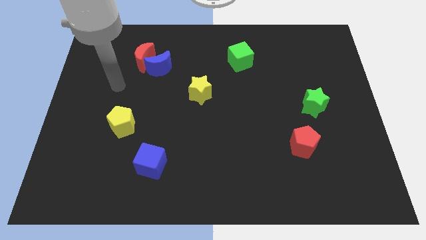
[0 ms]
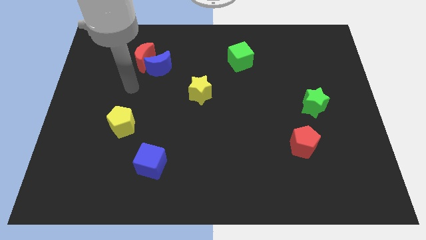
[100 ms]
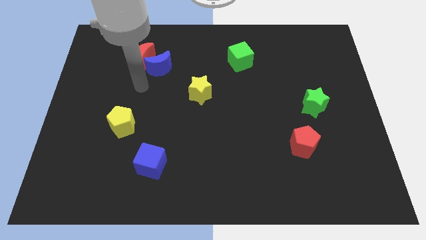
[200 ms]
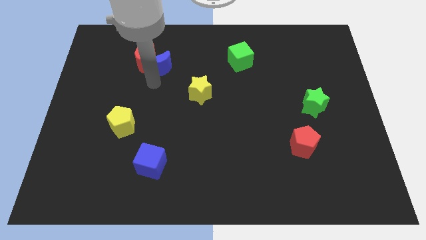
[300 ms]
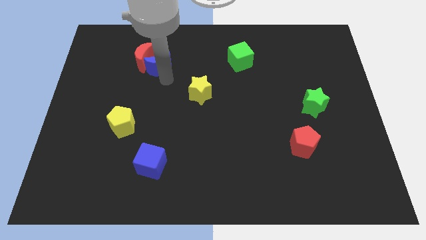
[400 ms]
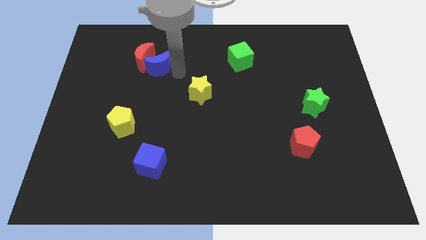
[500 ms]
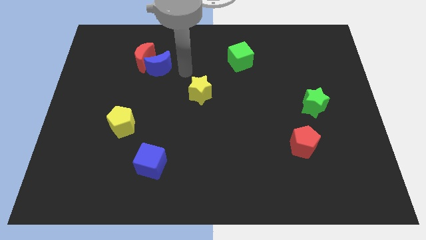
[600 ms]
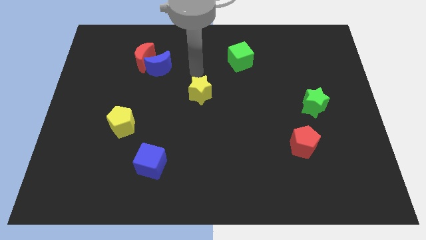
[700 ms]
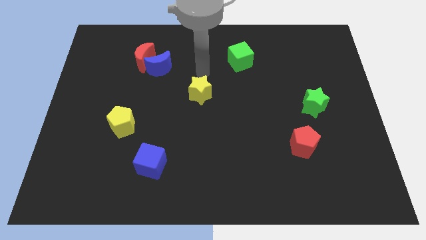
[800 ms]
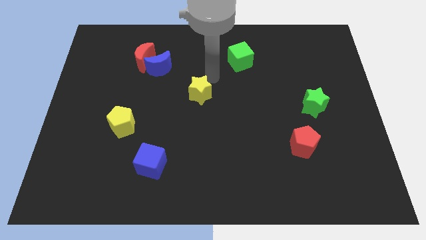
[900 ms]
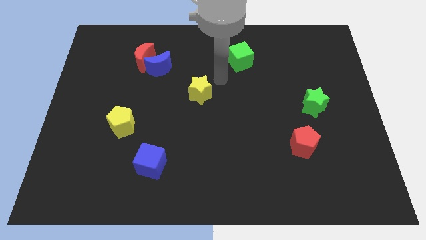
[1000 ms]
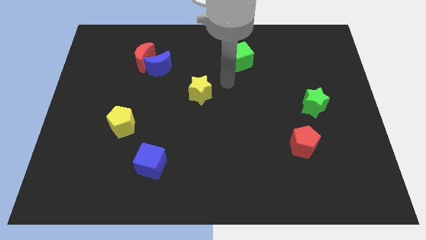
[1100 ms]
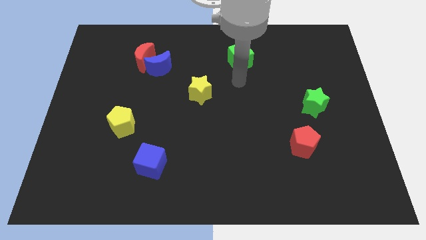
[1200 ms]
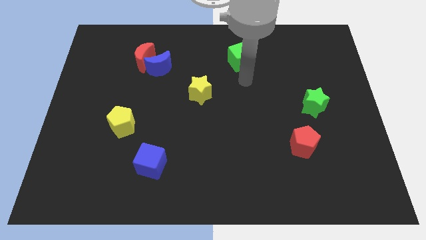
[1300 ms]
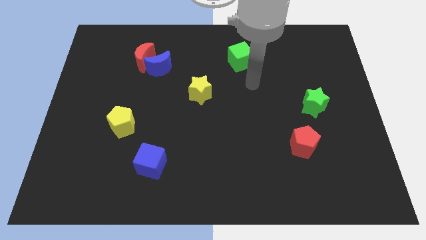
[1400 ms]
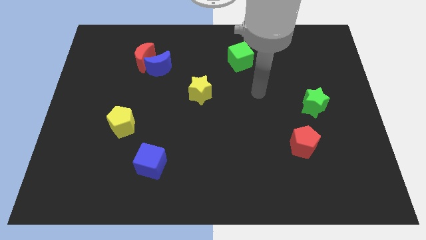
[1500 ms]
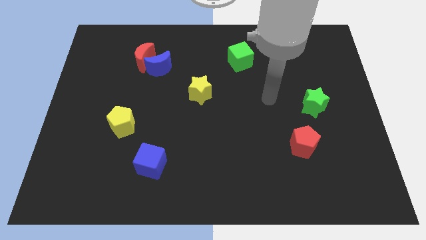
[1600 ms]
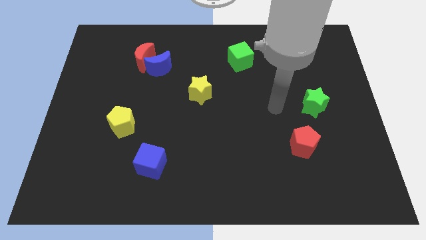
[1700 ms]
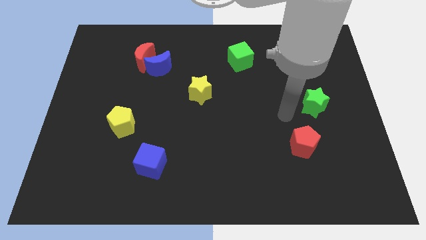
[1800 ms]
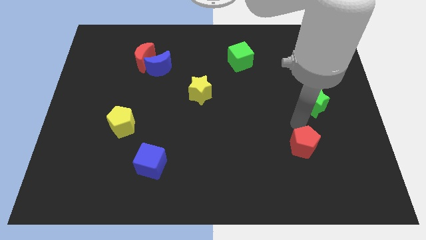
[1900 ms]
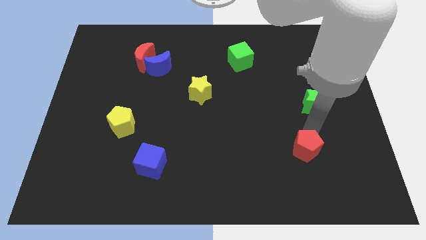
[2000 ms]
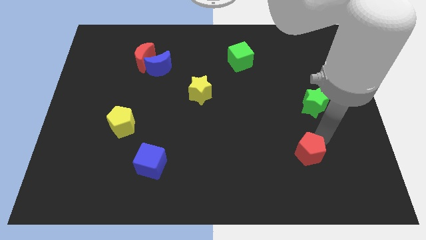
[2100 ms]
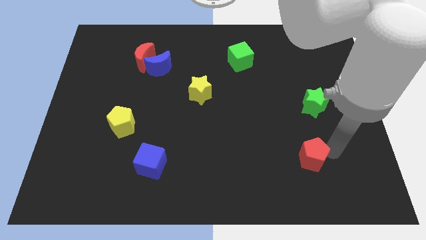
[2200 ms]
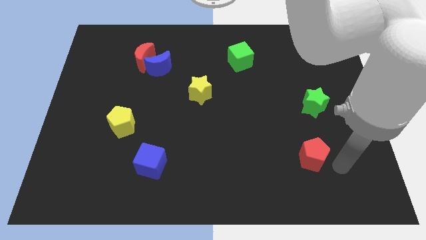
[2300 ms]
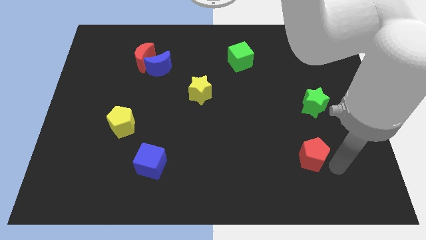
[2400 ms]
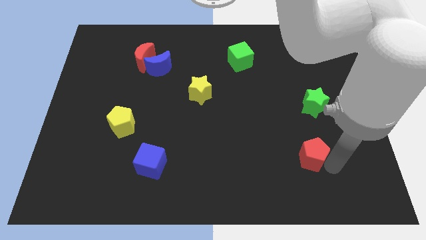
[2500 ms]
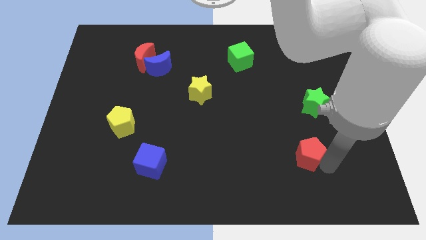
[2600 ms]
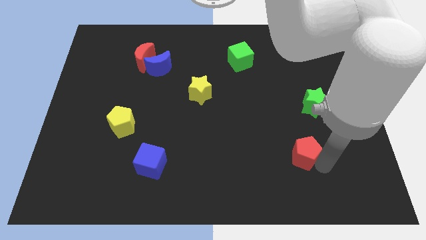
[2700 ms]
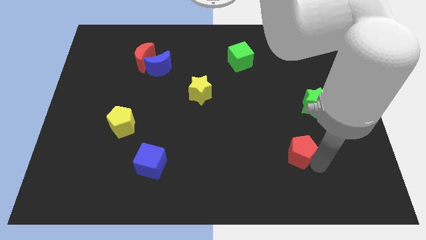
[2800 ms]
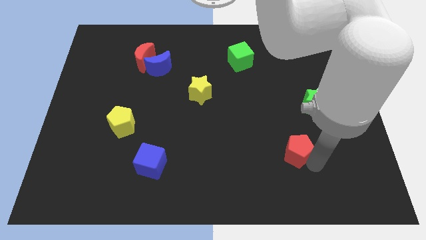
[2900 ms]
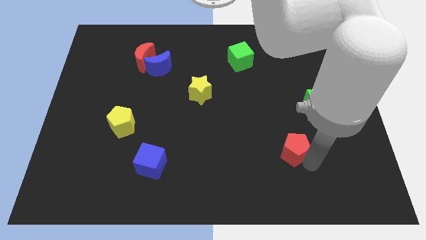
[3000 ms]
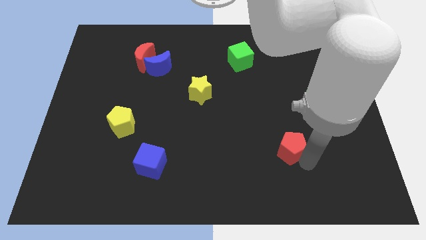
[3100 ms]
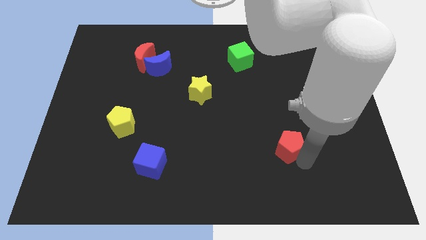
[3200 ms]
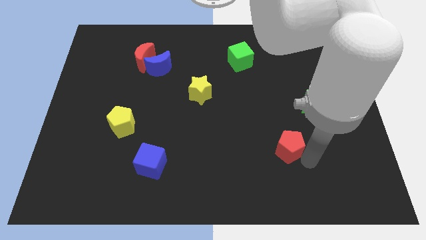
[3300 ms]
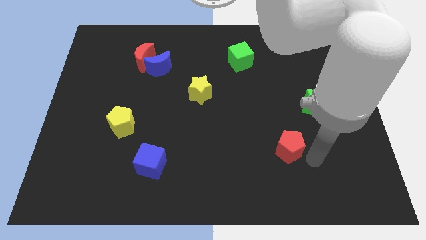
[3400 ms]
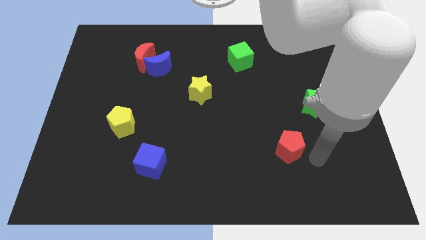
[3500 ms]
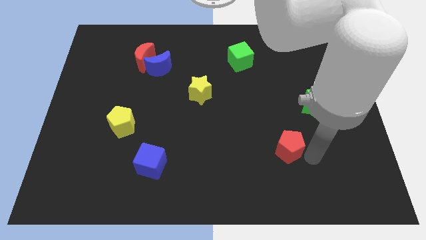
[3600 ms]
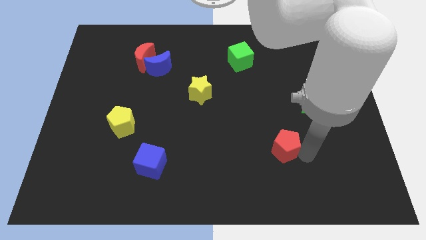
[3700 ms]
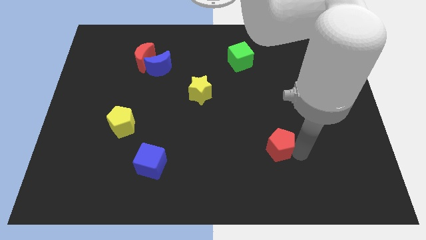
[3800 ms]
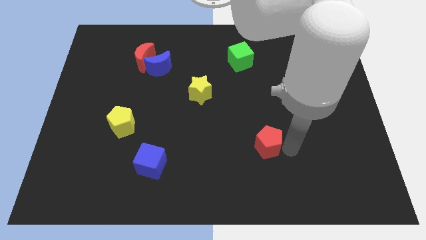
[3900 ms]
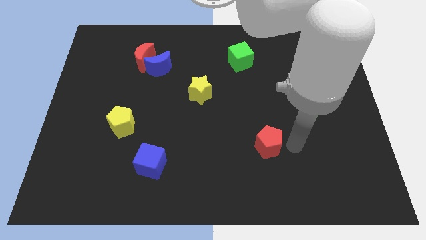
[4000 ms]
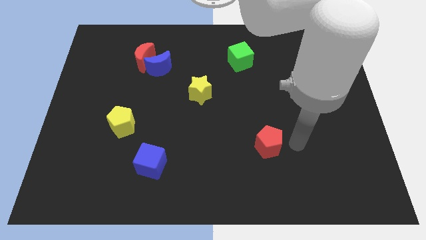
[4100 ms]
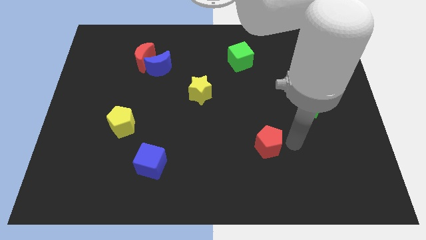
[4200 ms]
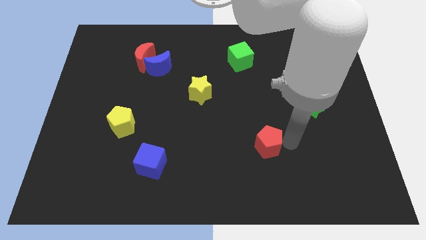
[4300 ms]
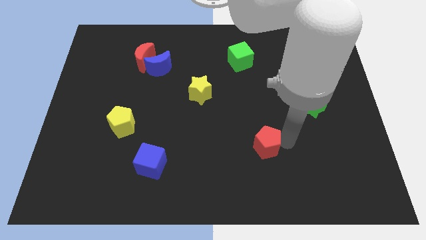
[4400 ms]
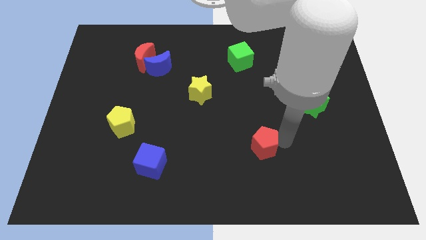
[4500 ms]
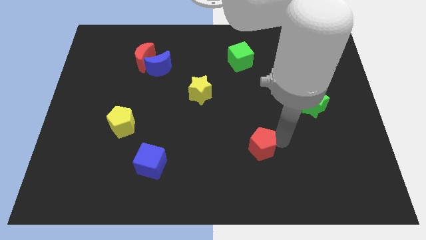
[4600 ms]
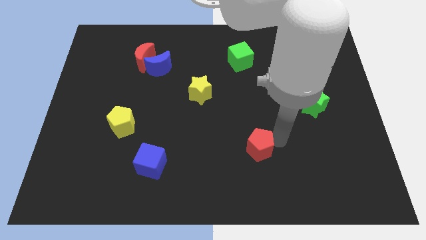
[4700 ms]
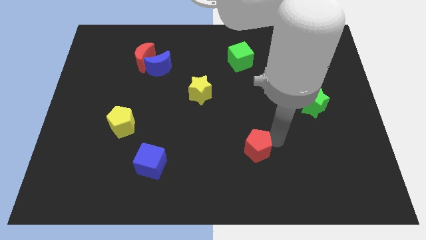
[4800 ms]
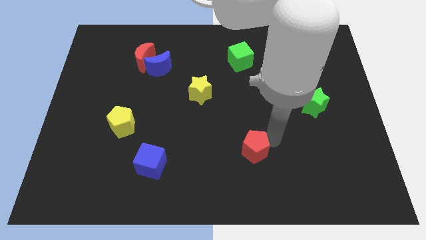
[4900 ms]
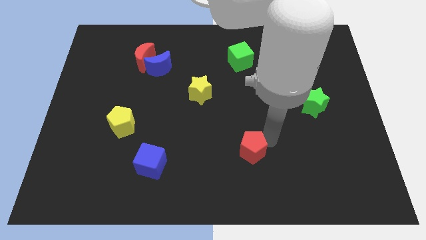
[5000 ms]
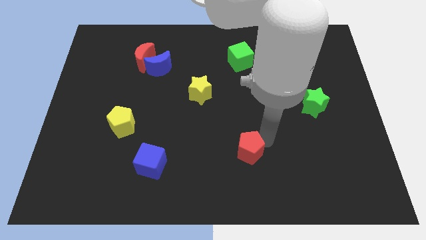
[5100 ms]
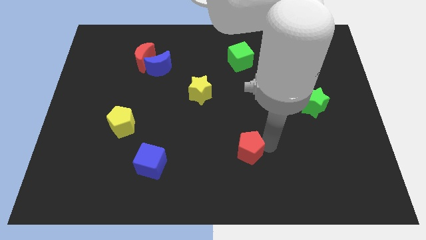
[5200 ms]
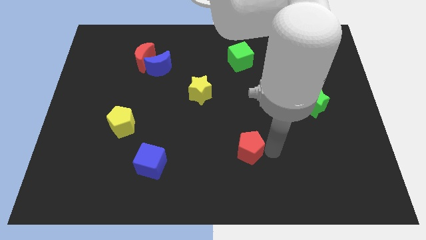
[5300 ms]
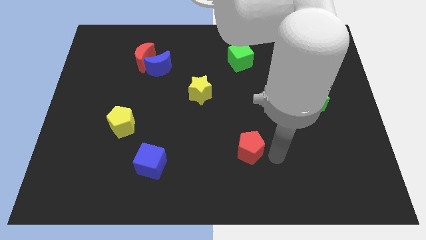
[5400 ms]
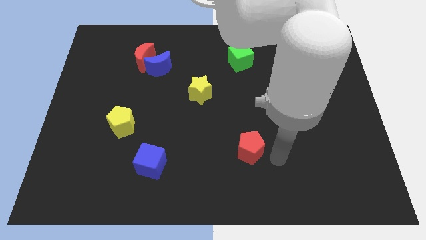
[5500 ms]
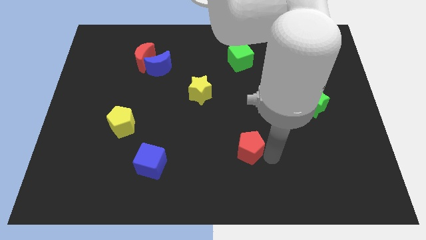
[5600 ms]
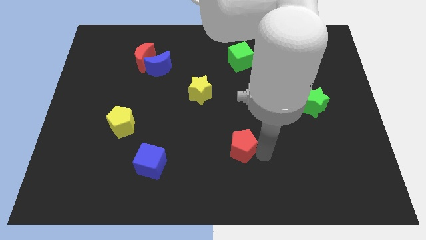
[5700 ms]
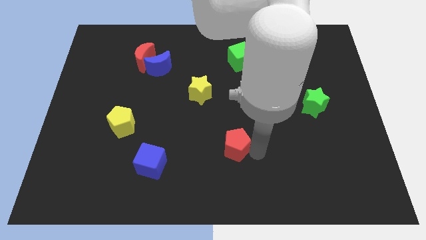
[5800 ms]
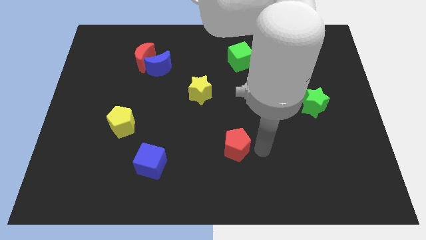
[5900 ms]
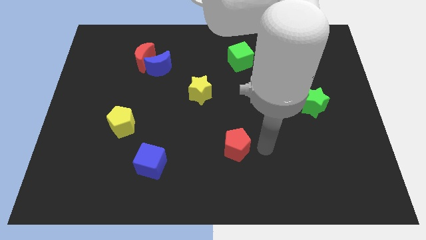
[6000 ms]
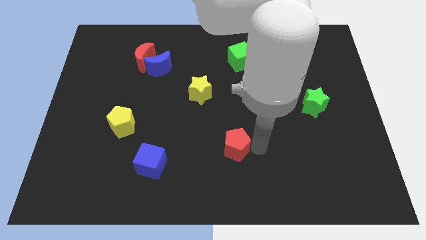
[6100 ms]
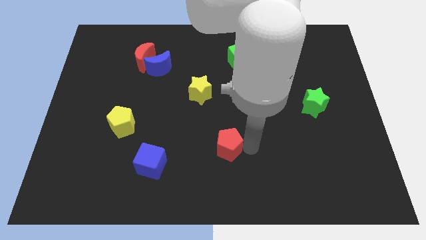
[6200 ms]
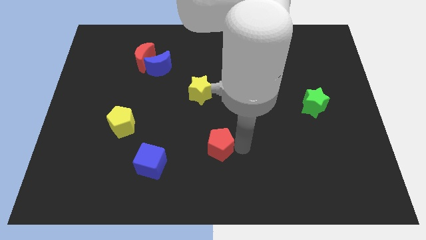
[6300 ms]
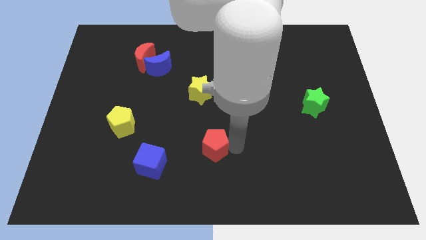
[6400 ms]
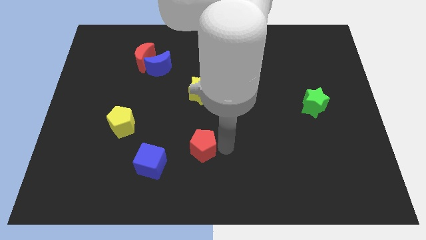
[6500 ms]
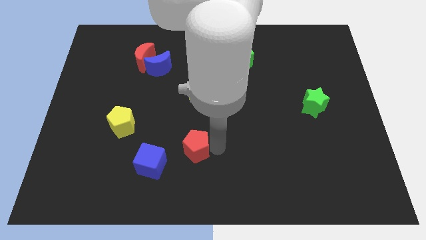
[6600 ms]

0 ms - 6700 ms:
put the red pentagon to the top right of the blue cube

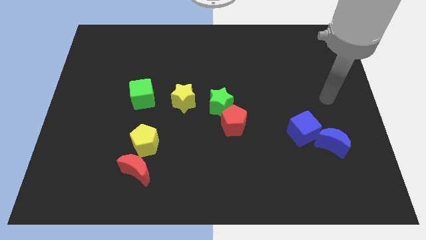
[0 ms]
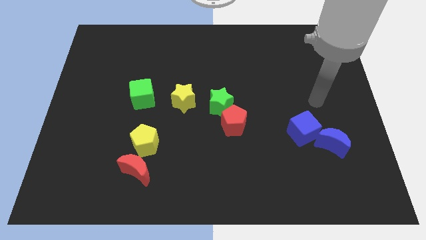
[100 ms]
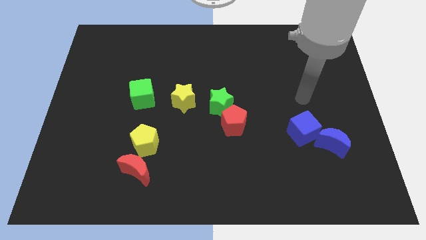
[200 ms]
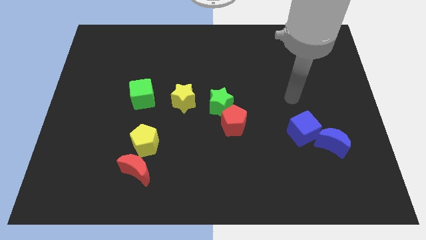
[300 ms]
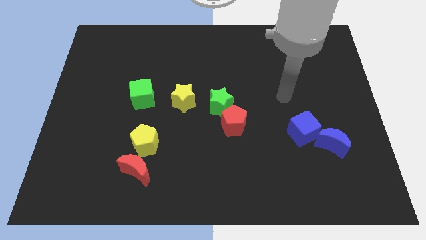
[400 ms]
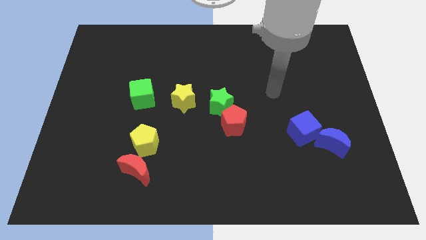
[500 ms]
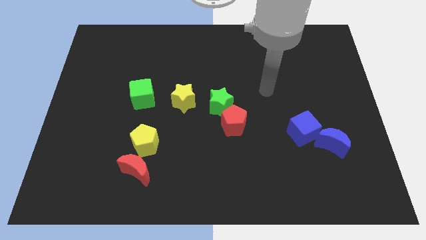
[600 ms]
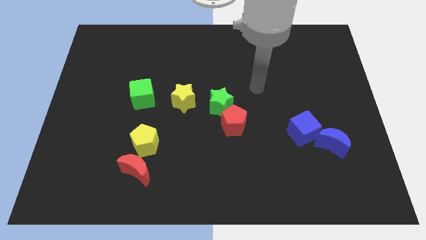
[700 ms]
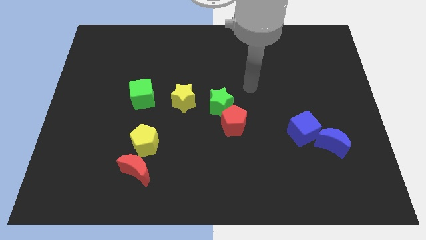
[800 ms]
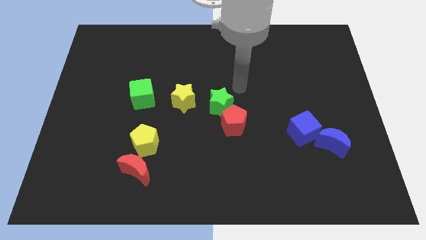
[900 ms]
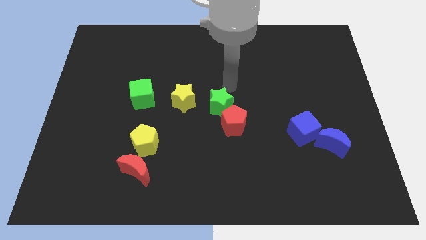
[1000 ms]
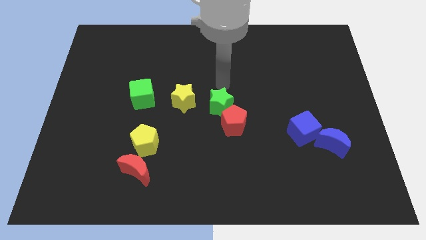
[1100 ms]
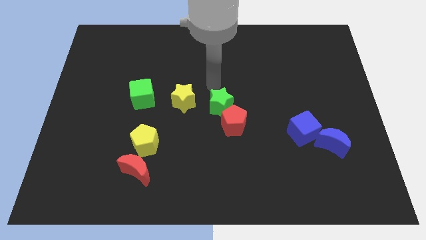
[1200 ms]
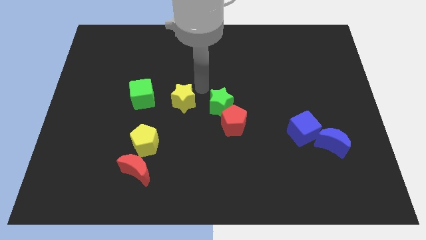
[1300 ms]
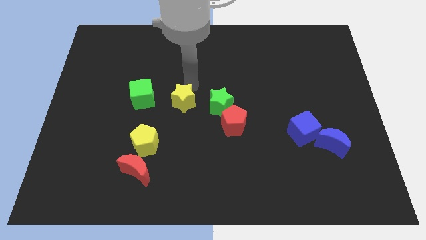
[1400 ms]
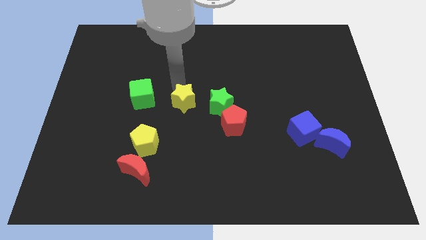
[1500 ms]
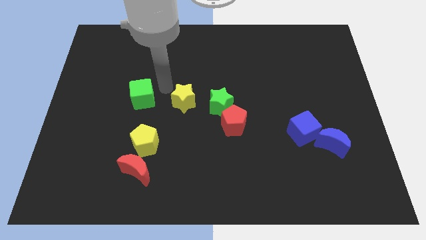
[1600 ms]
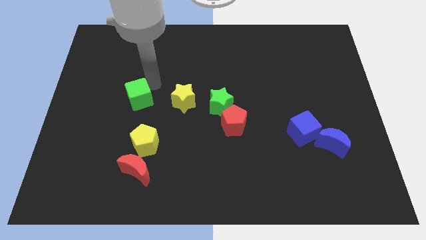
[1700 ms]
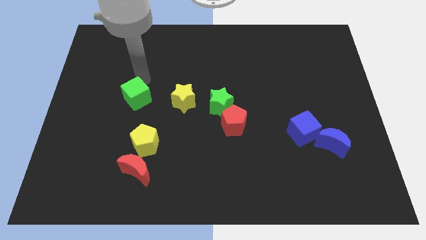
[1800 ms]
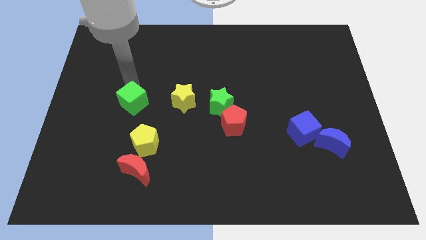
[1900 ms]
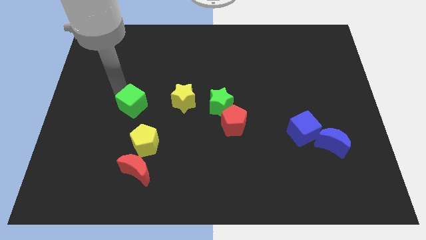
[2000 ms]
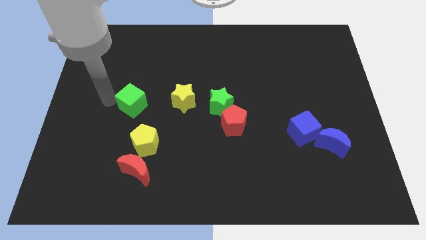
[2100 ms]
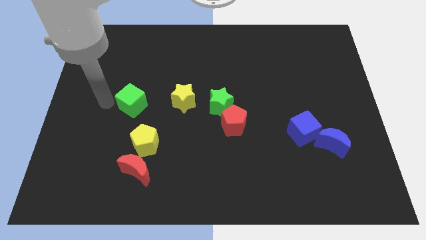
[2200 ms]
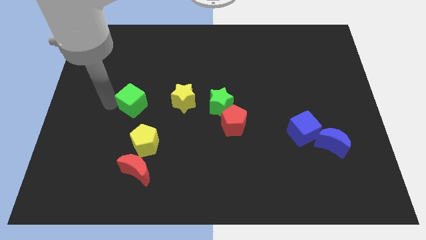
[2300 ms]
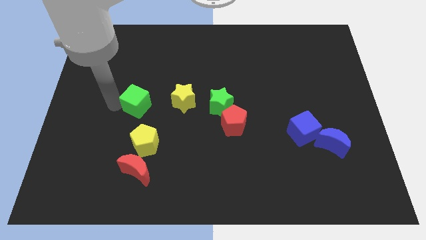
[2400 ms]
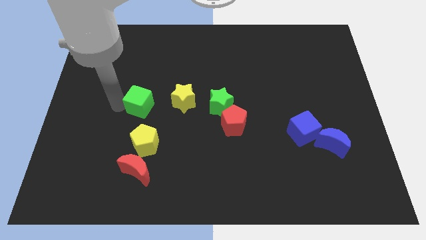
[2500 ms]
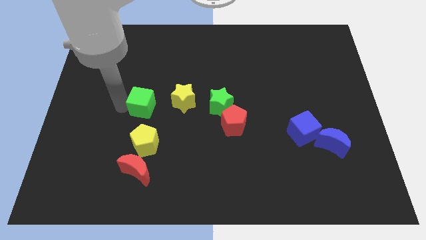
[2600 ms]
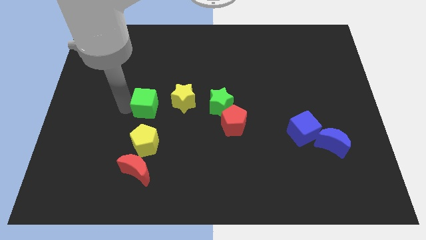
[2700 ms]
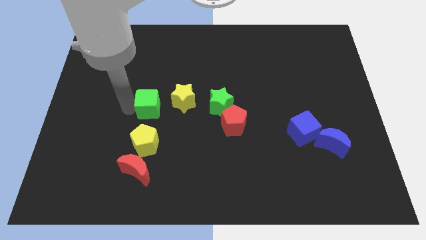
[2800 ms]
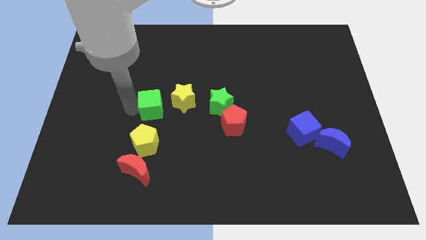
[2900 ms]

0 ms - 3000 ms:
slide the green cube to the left side of the green star
